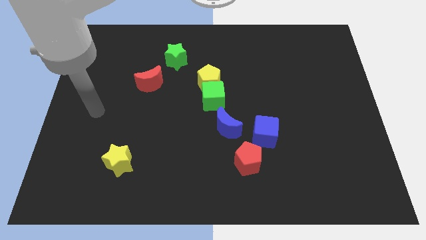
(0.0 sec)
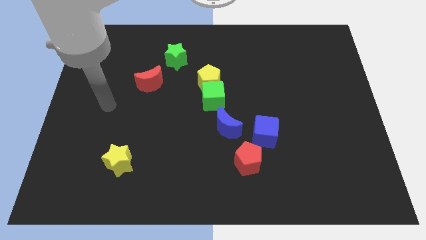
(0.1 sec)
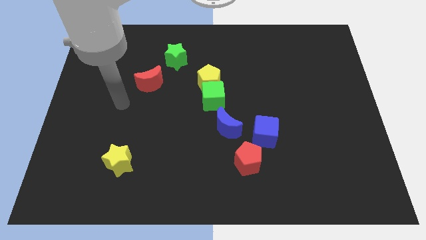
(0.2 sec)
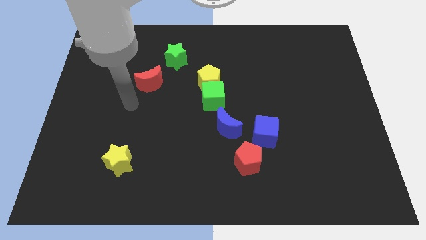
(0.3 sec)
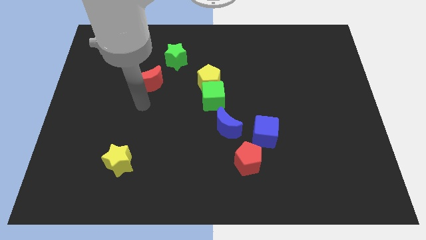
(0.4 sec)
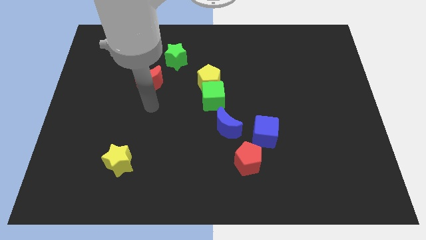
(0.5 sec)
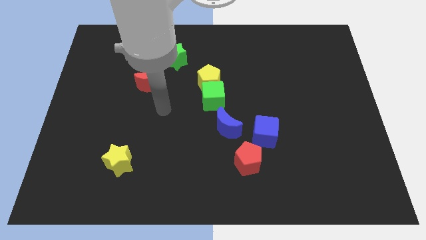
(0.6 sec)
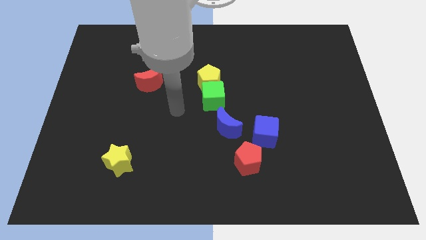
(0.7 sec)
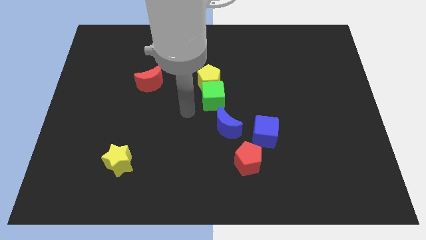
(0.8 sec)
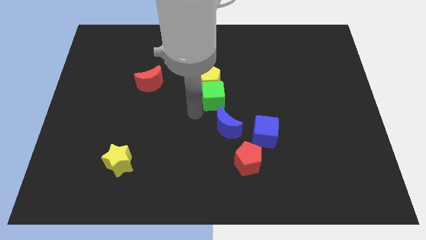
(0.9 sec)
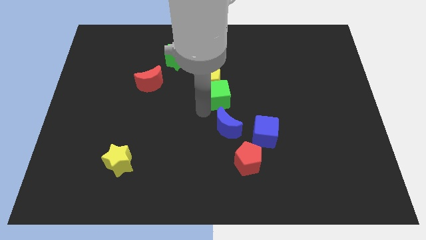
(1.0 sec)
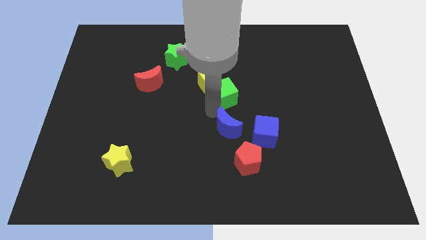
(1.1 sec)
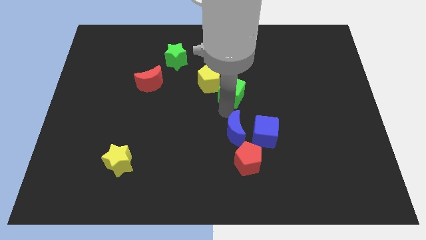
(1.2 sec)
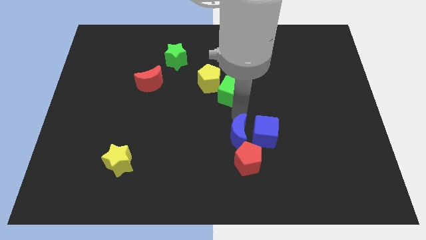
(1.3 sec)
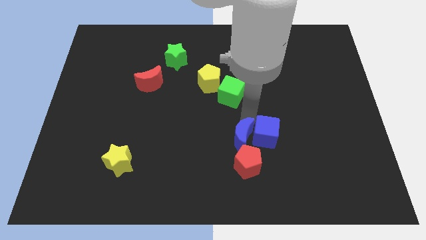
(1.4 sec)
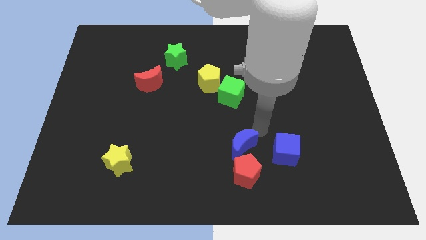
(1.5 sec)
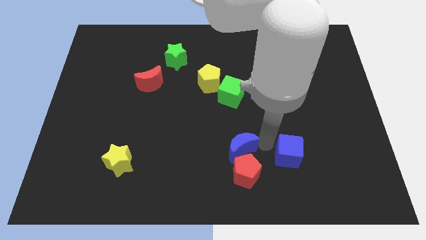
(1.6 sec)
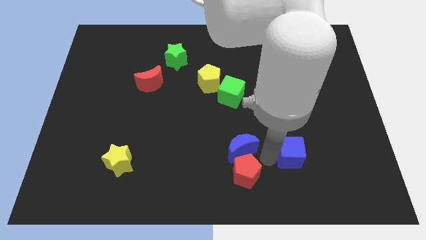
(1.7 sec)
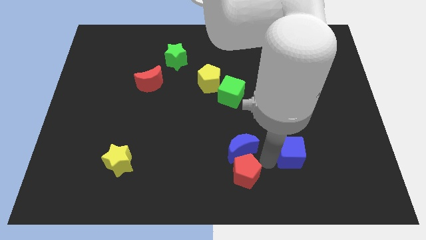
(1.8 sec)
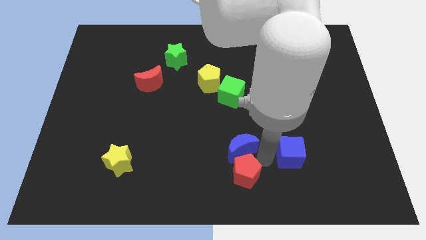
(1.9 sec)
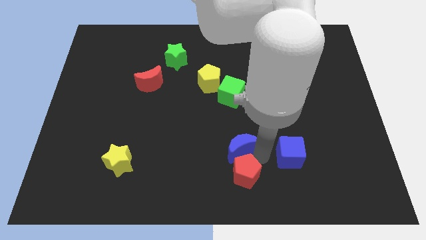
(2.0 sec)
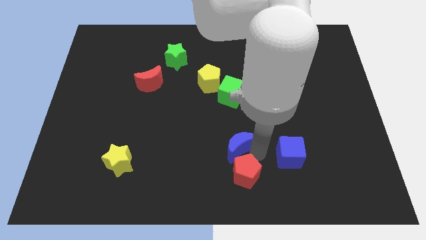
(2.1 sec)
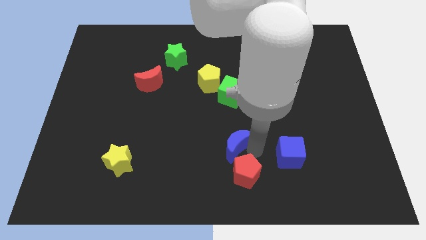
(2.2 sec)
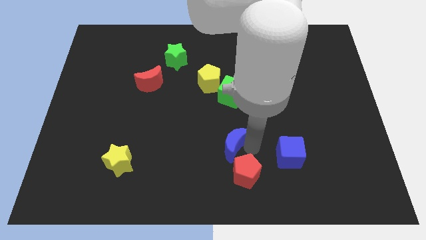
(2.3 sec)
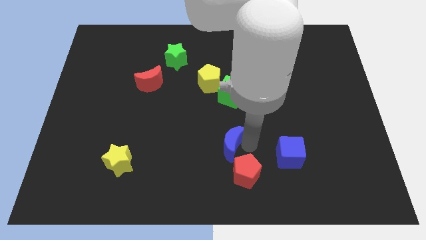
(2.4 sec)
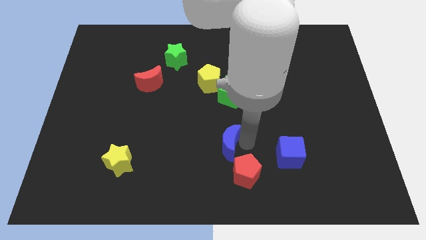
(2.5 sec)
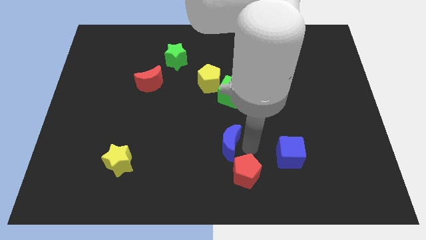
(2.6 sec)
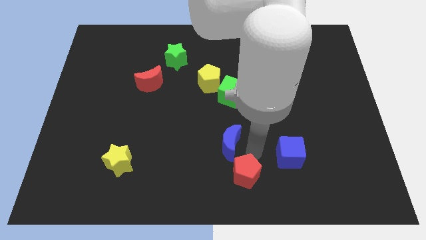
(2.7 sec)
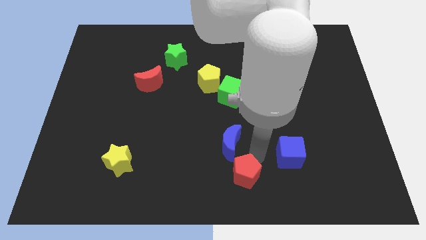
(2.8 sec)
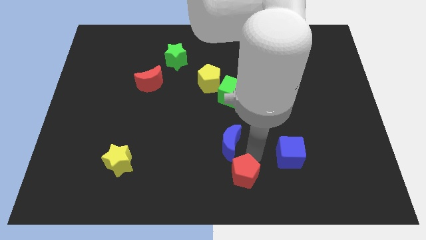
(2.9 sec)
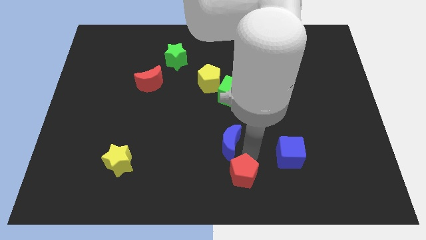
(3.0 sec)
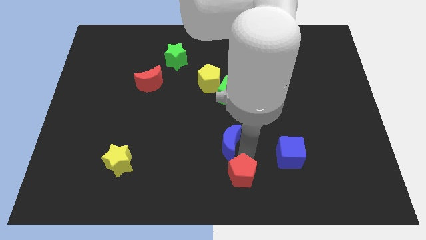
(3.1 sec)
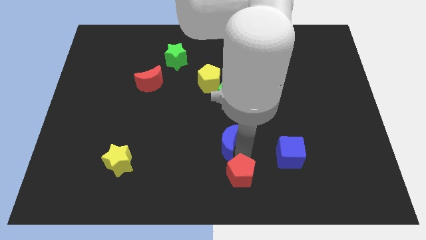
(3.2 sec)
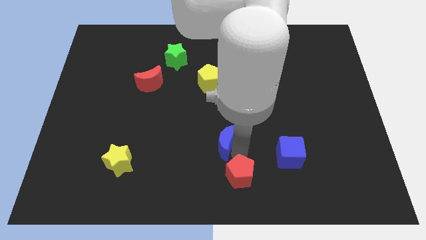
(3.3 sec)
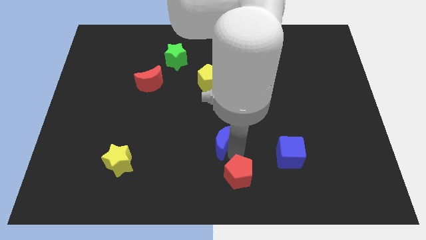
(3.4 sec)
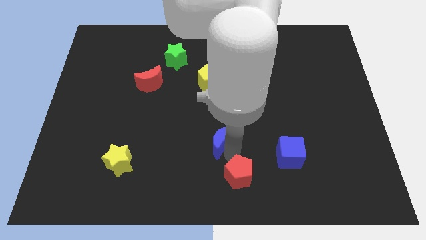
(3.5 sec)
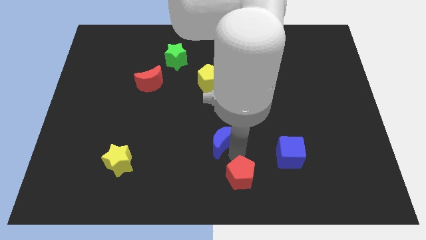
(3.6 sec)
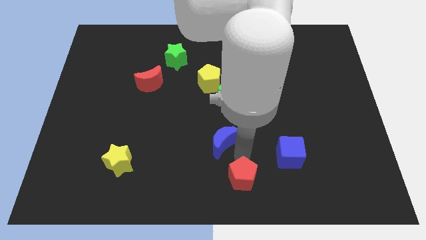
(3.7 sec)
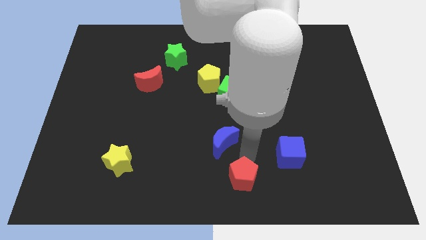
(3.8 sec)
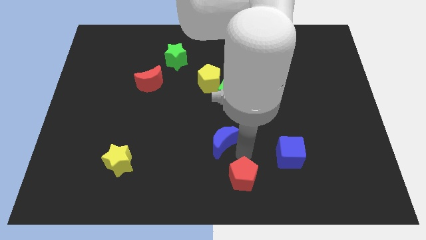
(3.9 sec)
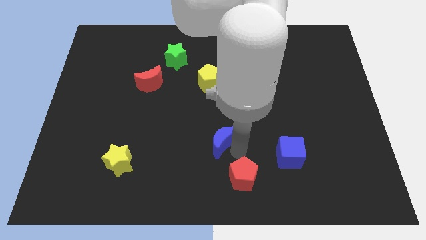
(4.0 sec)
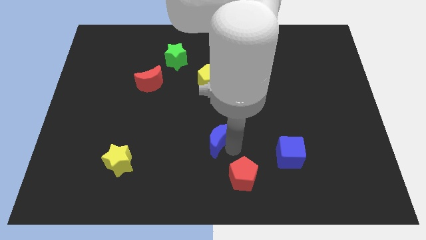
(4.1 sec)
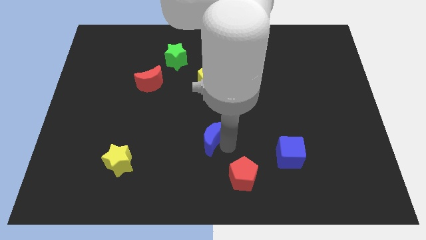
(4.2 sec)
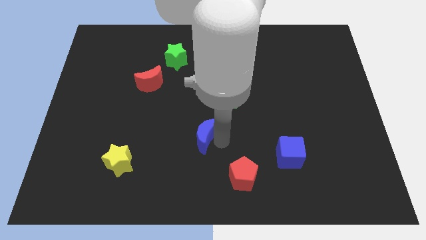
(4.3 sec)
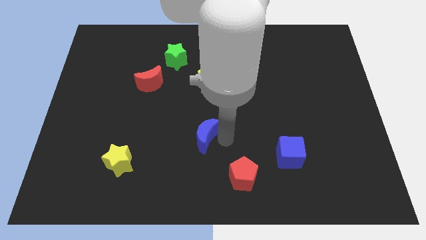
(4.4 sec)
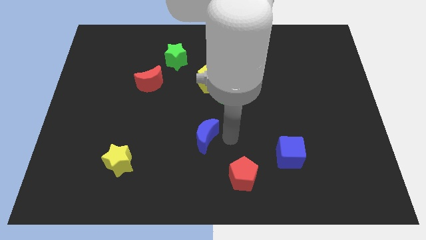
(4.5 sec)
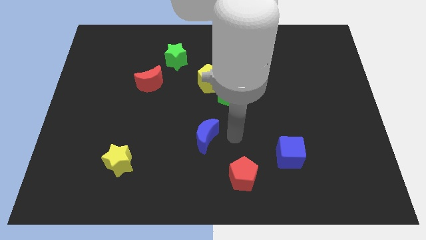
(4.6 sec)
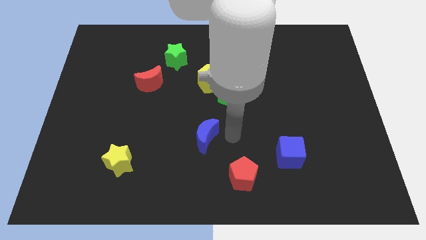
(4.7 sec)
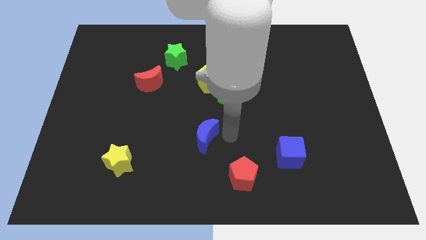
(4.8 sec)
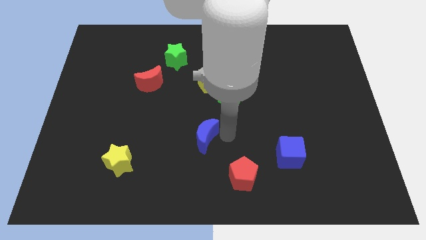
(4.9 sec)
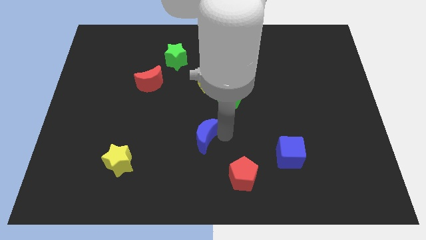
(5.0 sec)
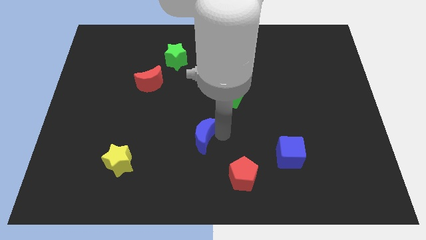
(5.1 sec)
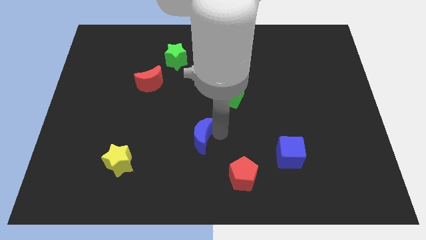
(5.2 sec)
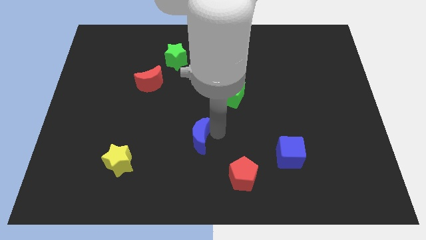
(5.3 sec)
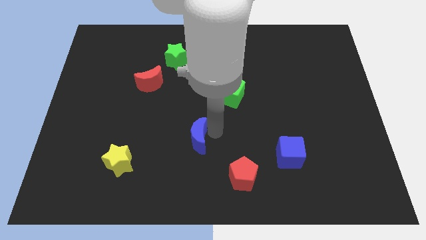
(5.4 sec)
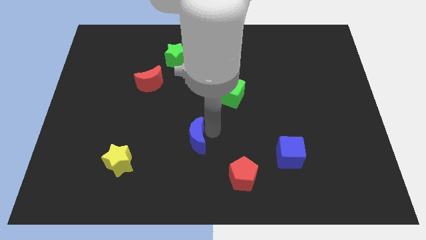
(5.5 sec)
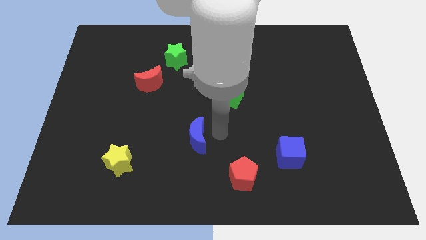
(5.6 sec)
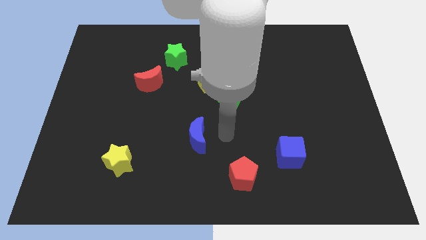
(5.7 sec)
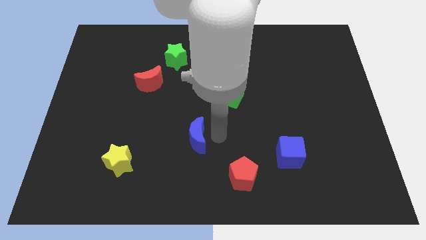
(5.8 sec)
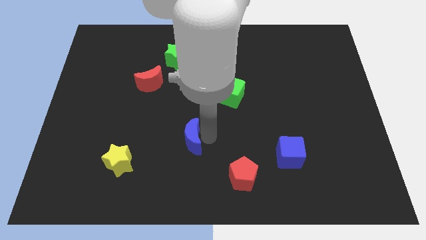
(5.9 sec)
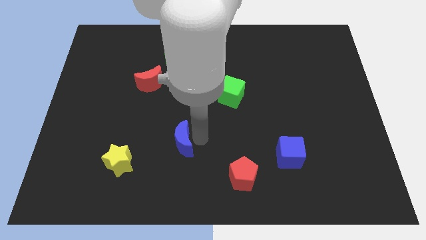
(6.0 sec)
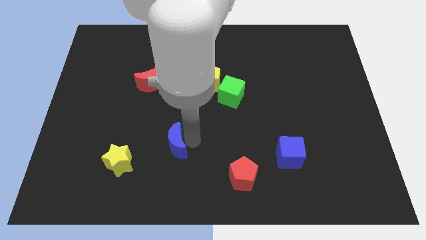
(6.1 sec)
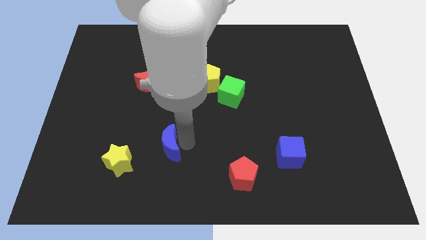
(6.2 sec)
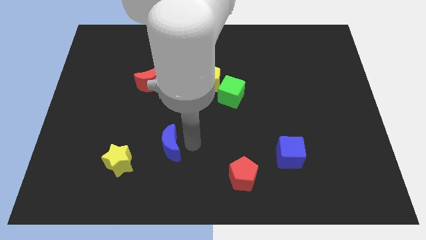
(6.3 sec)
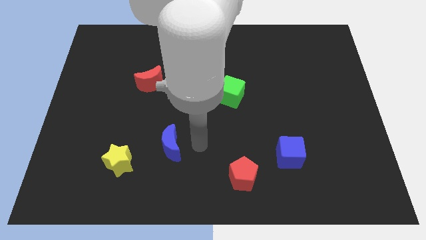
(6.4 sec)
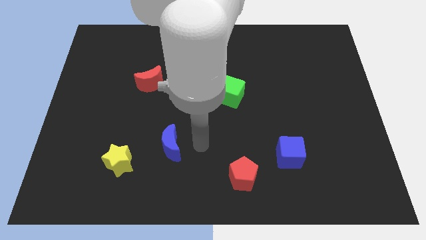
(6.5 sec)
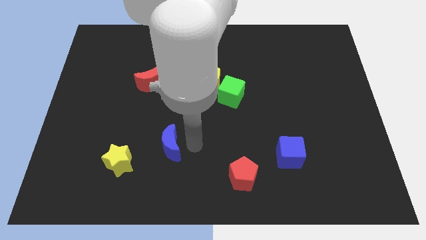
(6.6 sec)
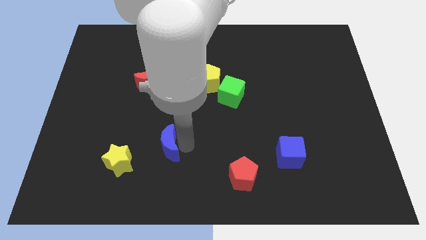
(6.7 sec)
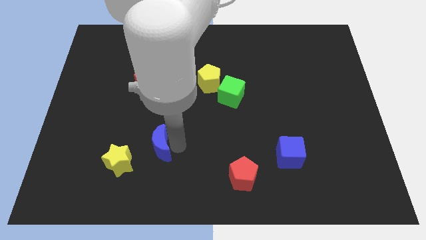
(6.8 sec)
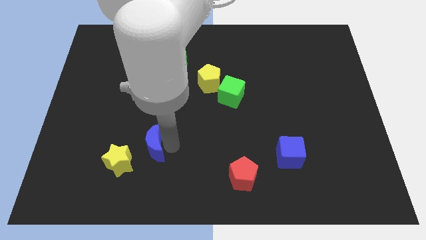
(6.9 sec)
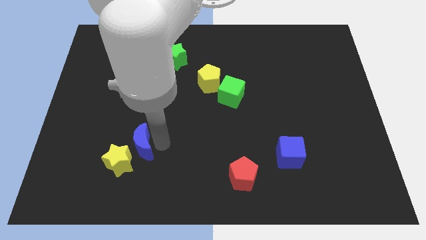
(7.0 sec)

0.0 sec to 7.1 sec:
move the blue moon to the yellow star

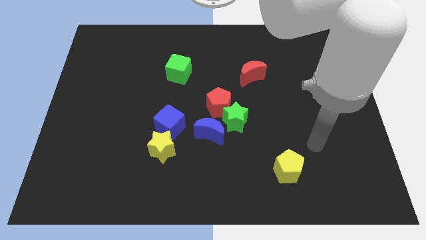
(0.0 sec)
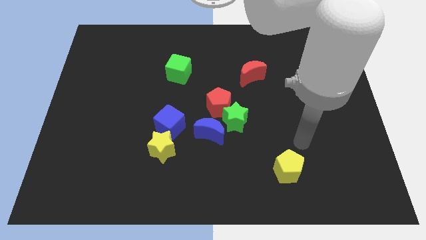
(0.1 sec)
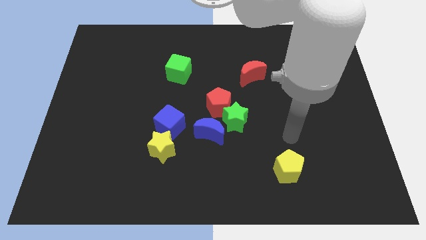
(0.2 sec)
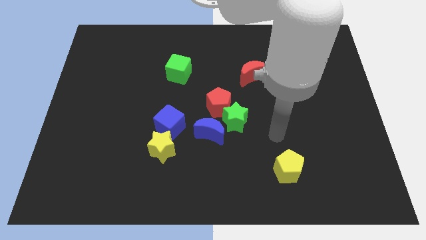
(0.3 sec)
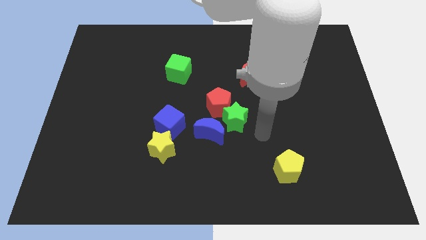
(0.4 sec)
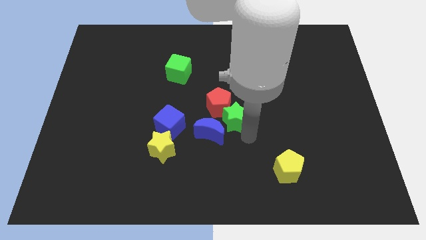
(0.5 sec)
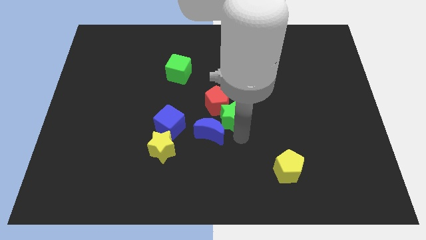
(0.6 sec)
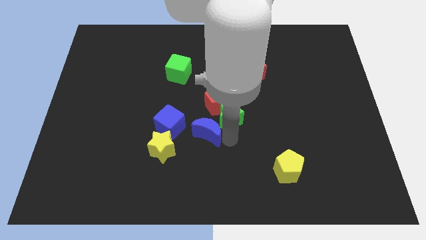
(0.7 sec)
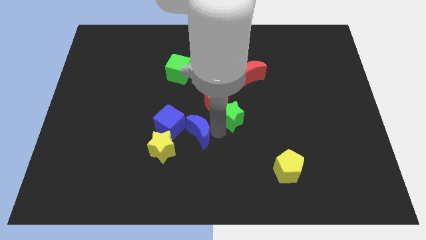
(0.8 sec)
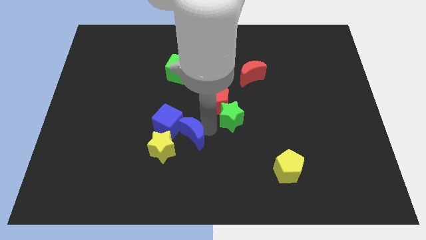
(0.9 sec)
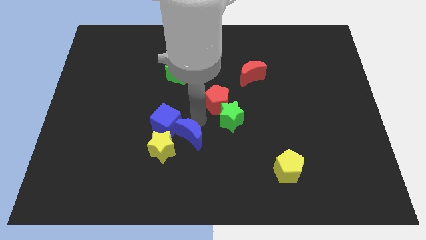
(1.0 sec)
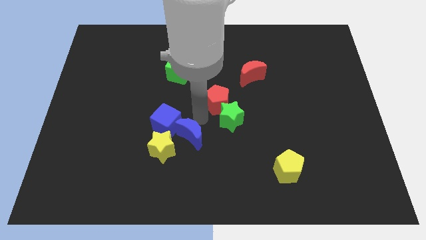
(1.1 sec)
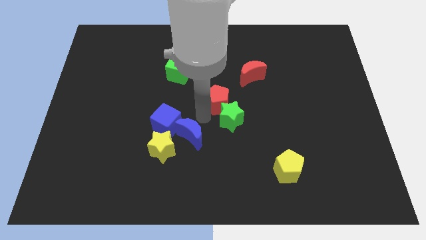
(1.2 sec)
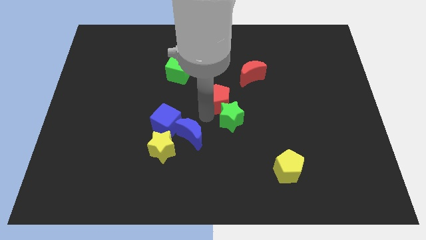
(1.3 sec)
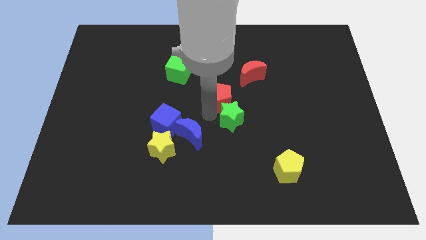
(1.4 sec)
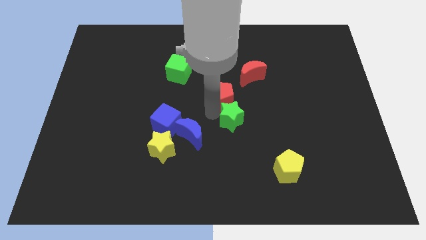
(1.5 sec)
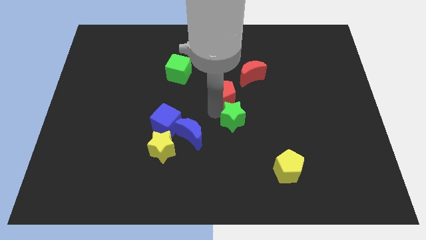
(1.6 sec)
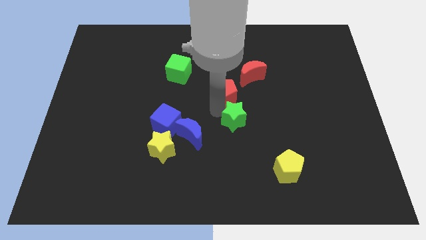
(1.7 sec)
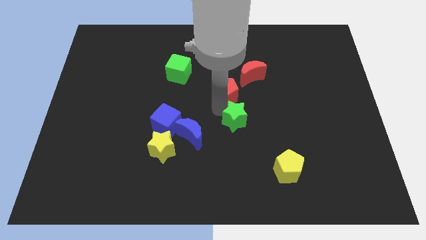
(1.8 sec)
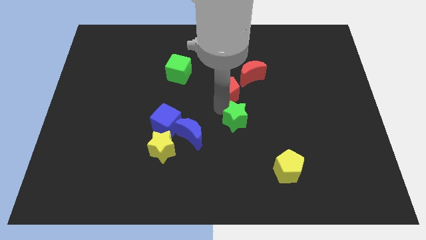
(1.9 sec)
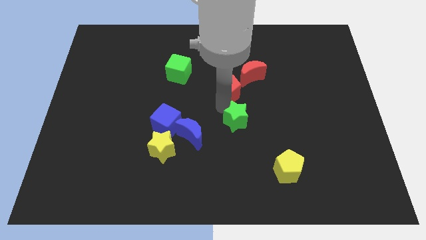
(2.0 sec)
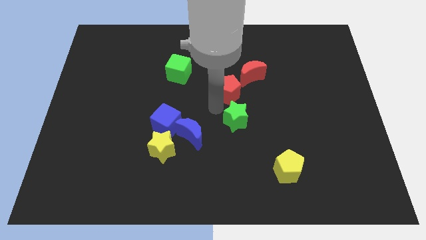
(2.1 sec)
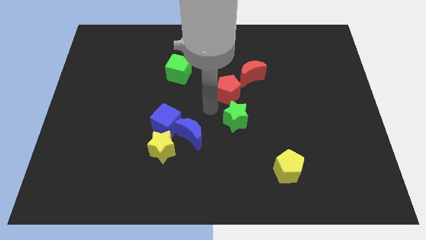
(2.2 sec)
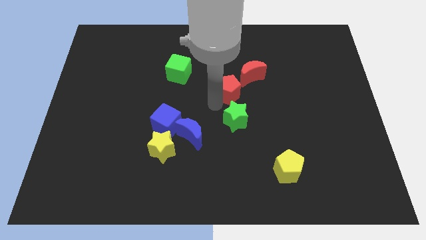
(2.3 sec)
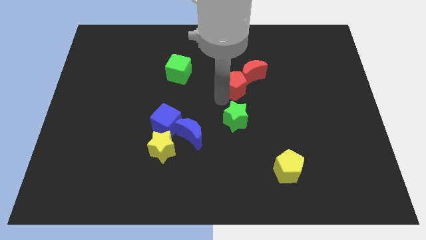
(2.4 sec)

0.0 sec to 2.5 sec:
slide the red pentagon to the red moon
